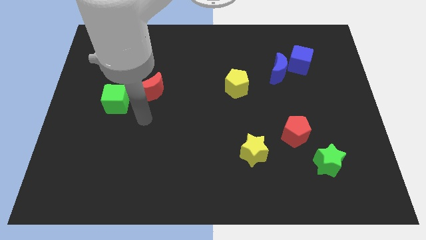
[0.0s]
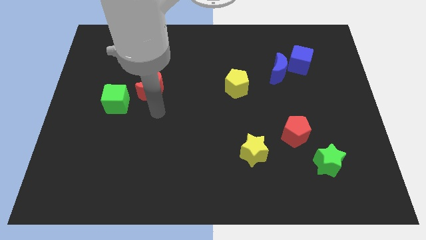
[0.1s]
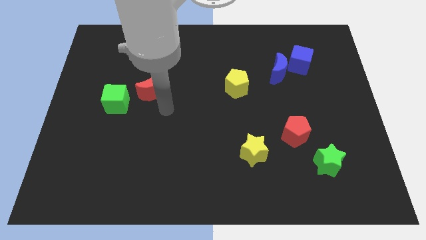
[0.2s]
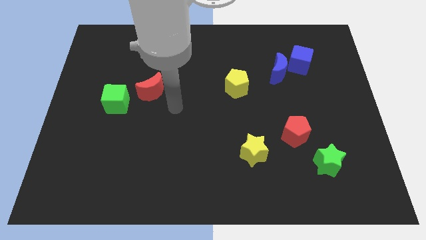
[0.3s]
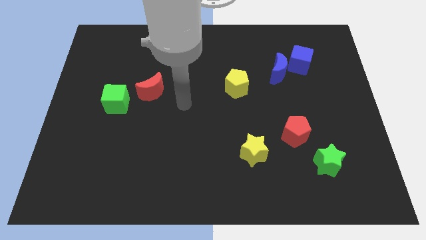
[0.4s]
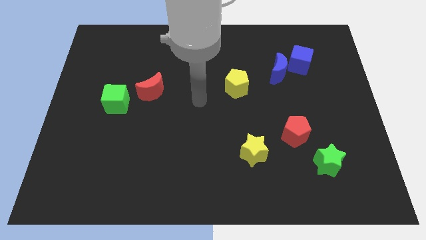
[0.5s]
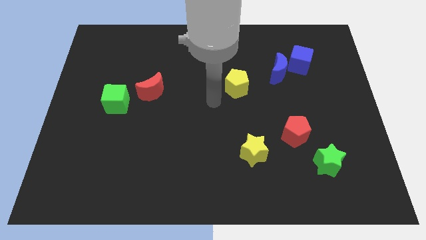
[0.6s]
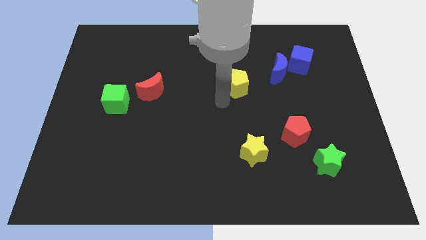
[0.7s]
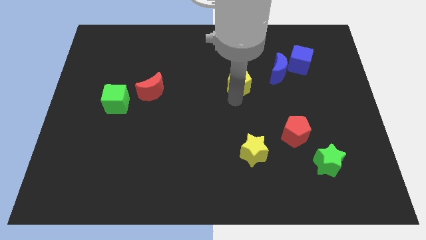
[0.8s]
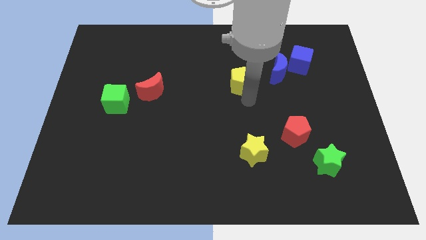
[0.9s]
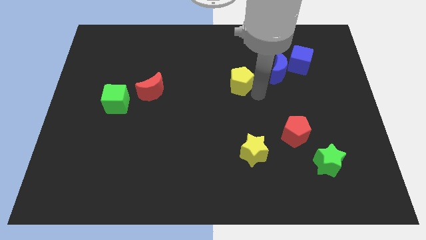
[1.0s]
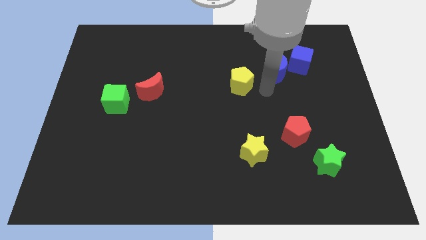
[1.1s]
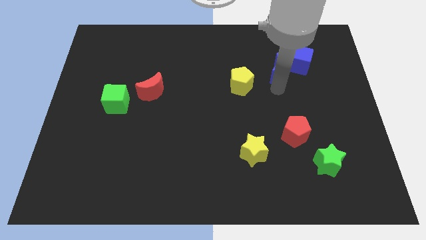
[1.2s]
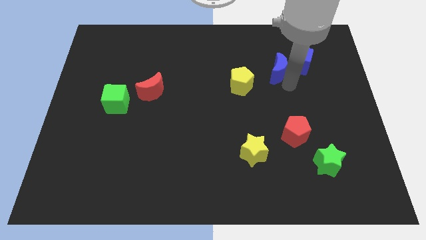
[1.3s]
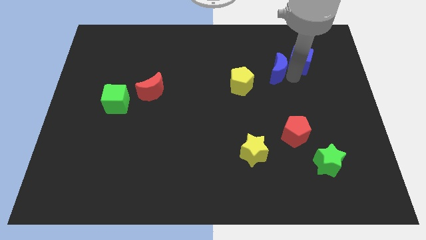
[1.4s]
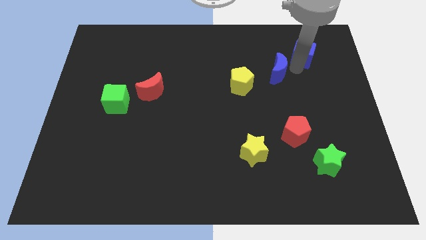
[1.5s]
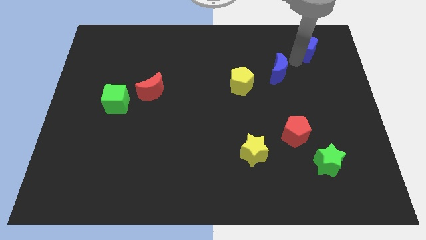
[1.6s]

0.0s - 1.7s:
move the blue moon away from the blue cube

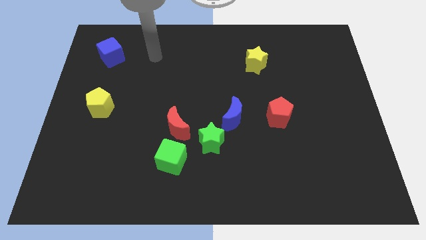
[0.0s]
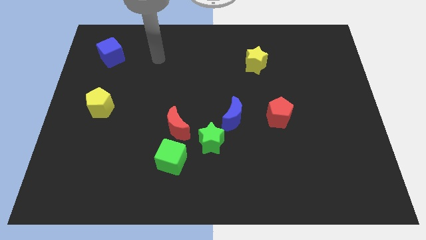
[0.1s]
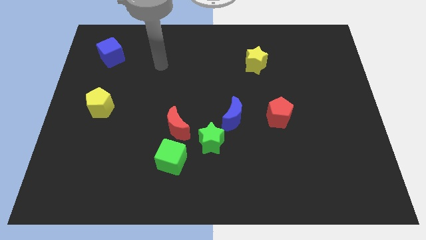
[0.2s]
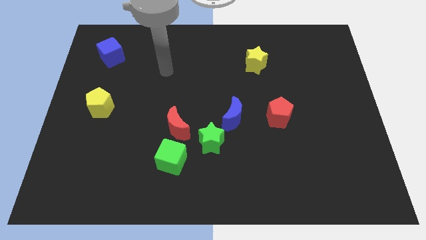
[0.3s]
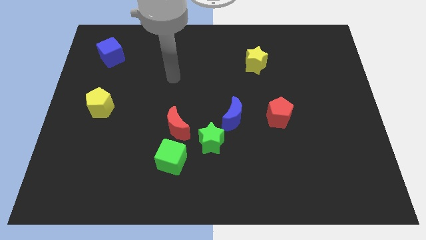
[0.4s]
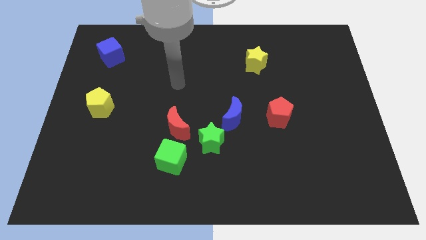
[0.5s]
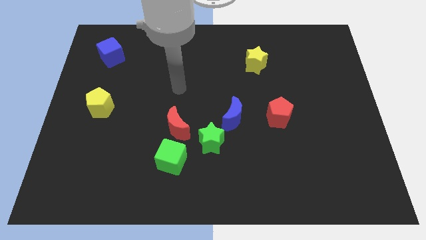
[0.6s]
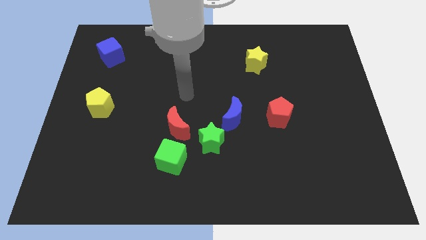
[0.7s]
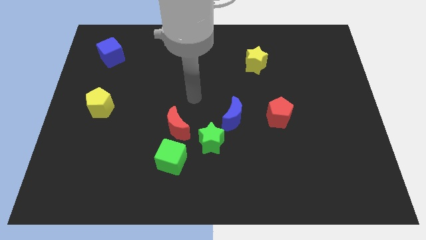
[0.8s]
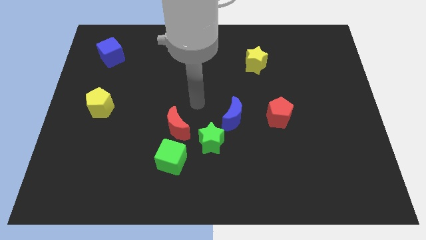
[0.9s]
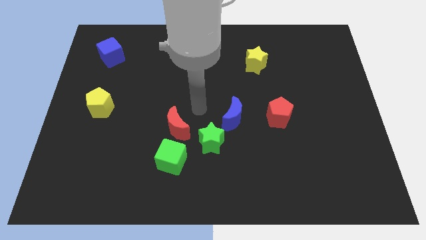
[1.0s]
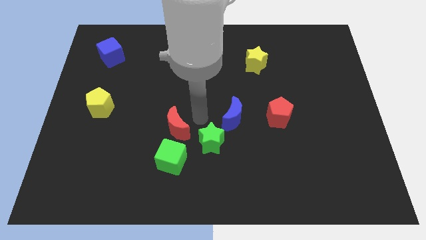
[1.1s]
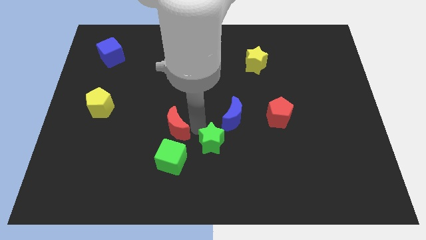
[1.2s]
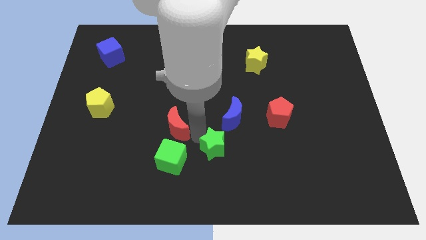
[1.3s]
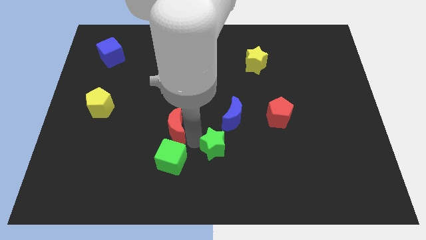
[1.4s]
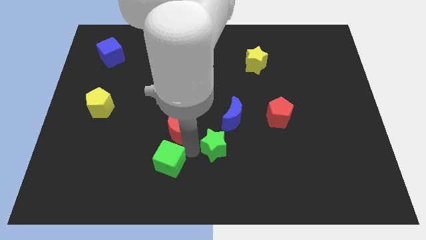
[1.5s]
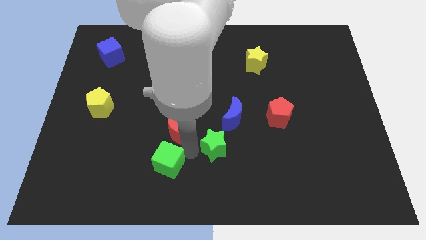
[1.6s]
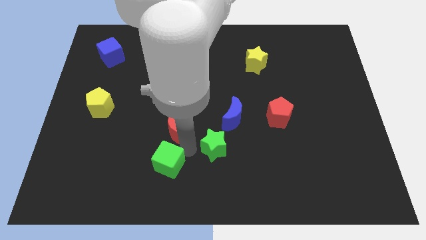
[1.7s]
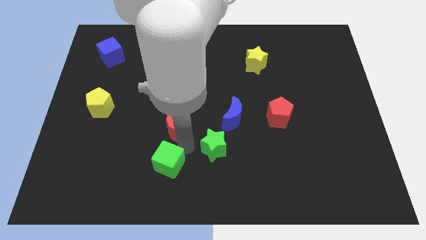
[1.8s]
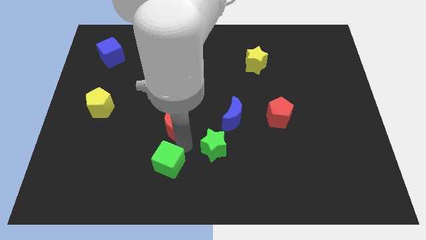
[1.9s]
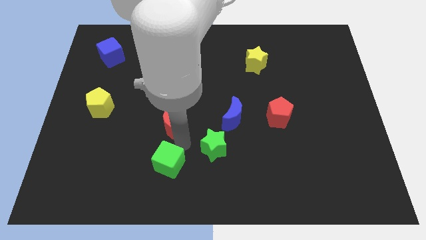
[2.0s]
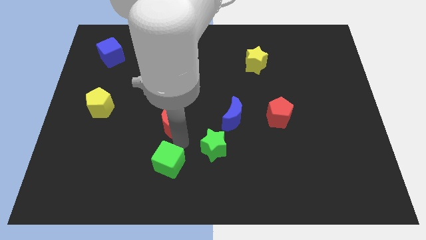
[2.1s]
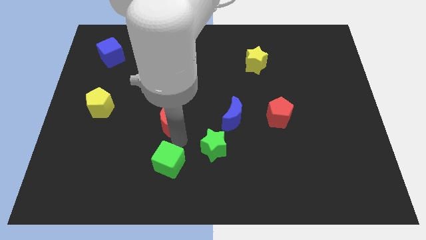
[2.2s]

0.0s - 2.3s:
separate the red moon from the green cube and green star

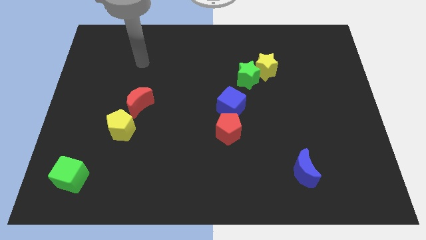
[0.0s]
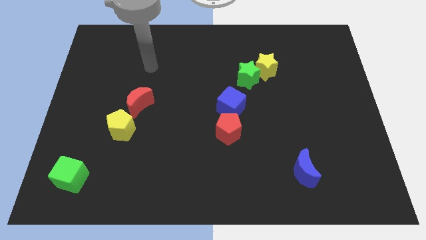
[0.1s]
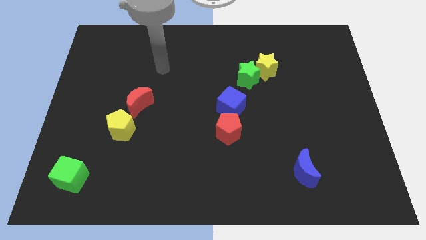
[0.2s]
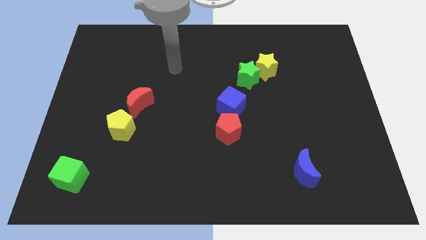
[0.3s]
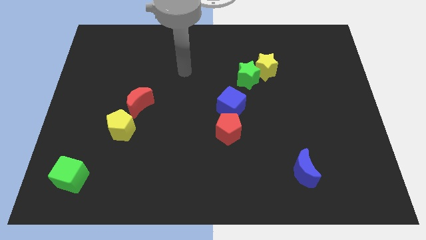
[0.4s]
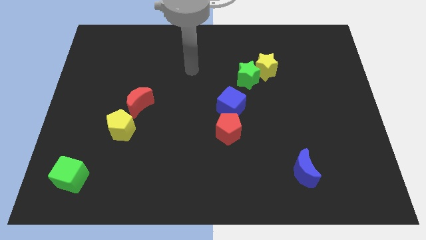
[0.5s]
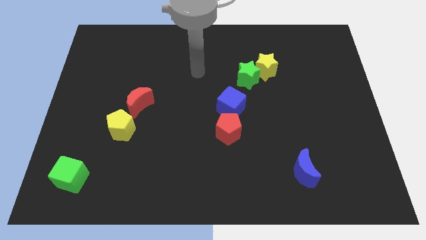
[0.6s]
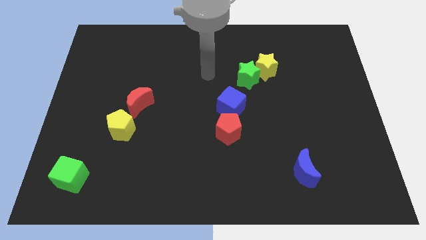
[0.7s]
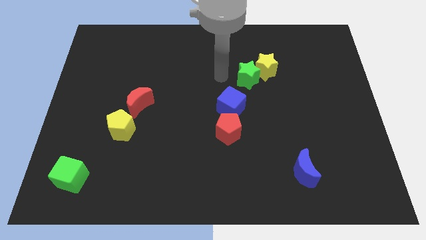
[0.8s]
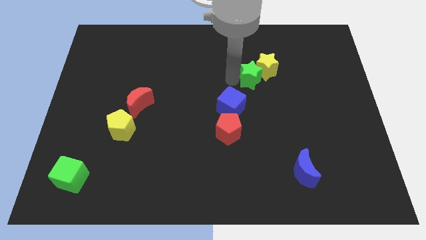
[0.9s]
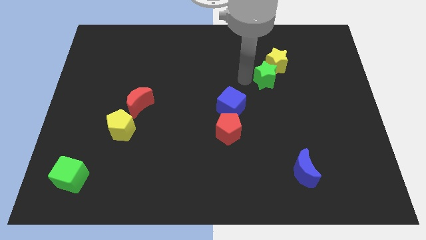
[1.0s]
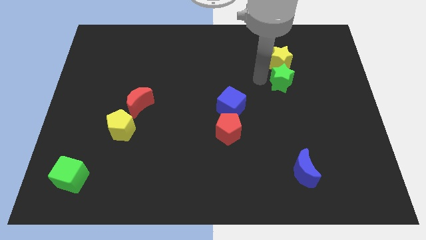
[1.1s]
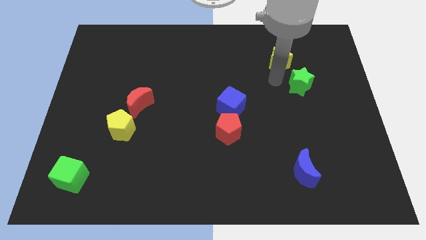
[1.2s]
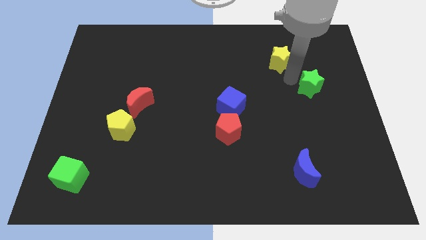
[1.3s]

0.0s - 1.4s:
pull the yellow star apart from the green star

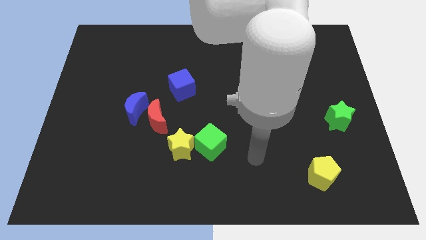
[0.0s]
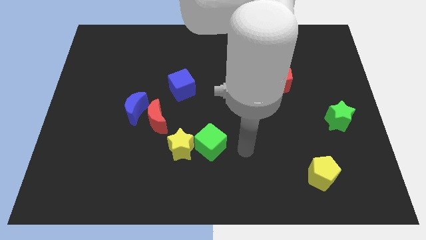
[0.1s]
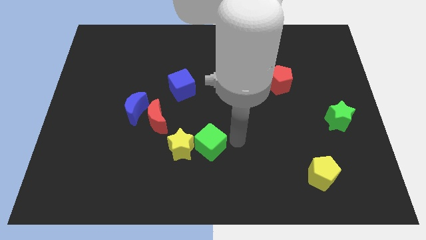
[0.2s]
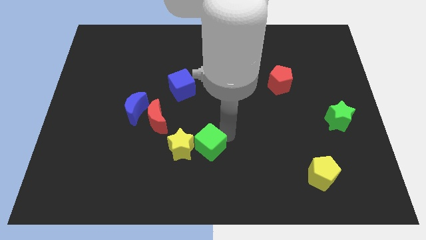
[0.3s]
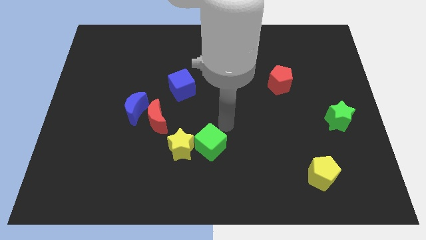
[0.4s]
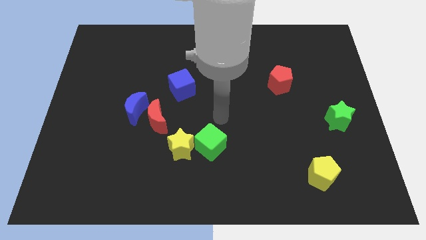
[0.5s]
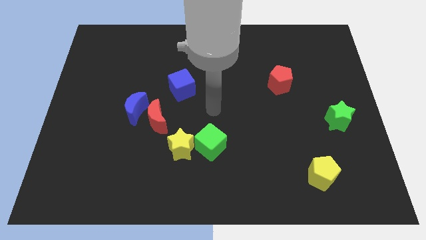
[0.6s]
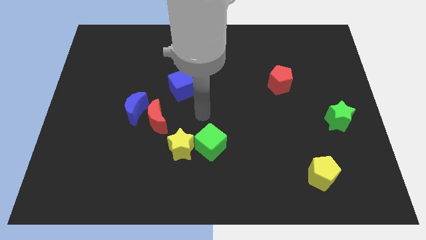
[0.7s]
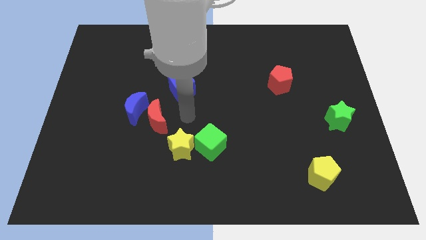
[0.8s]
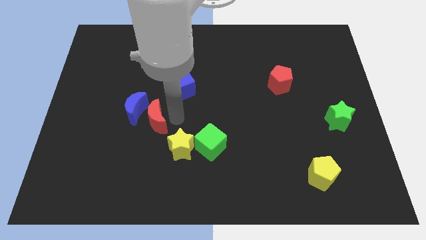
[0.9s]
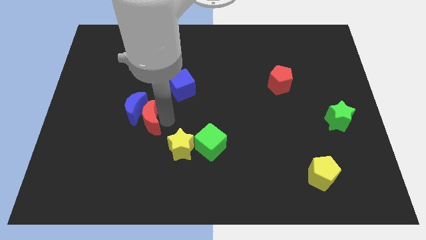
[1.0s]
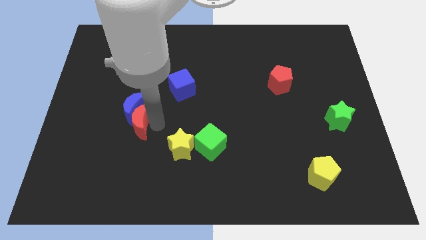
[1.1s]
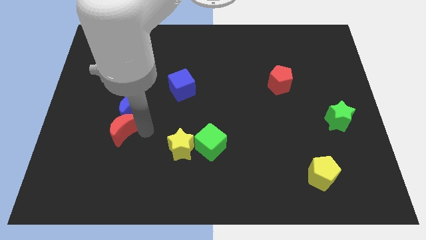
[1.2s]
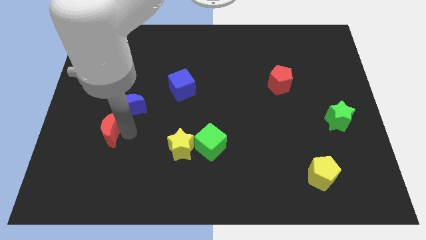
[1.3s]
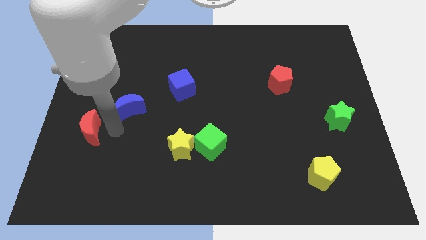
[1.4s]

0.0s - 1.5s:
move the blue moon away from the red moon

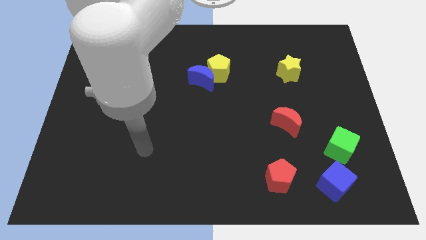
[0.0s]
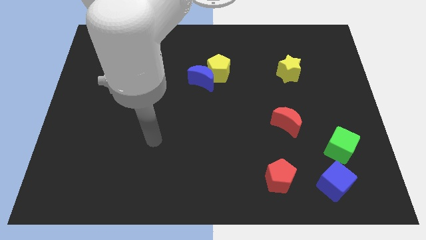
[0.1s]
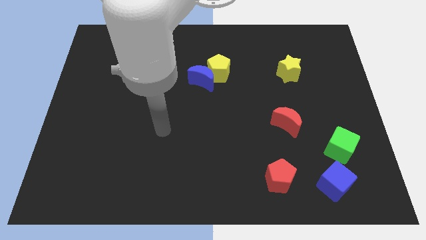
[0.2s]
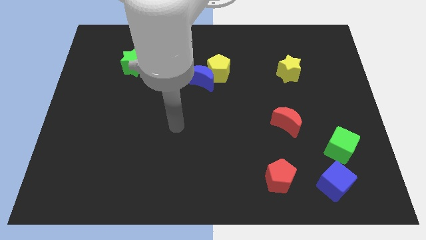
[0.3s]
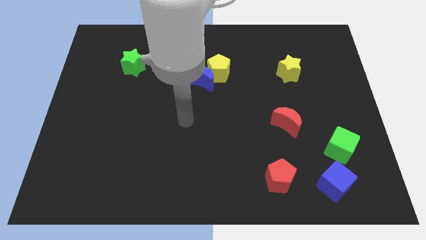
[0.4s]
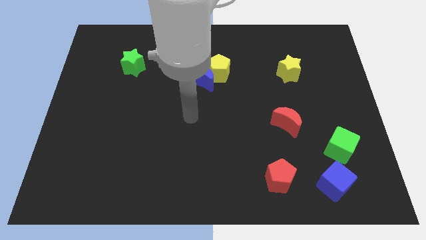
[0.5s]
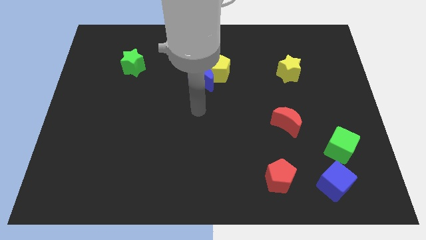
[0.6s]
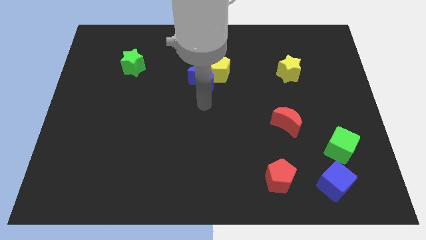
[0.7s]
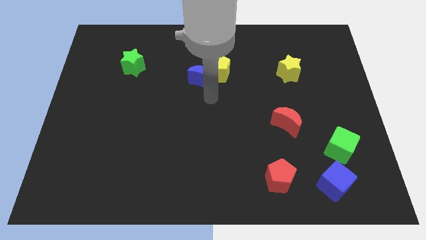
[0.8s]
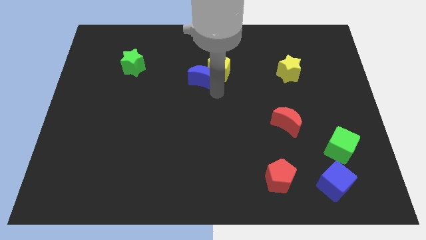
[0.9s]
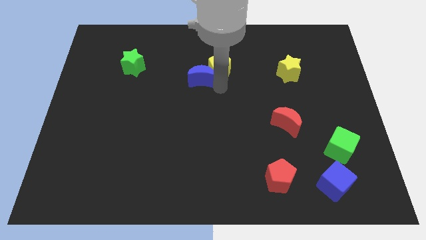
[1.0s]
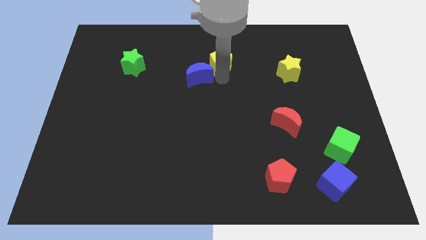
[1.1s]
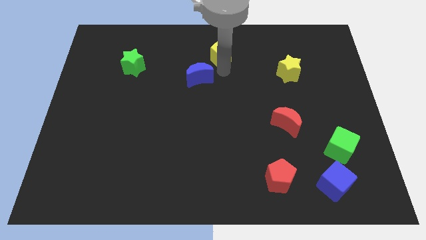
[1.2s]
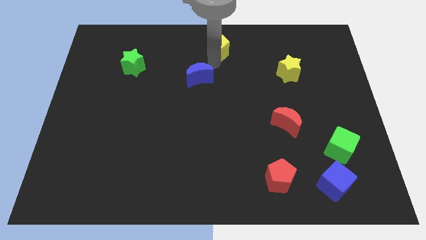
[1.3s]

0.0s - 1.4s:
separate the blue moon from the yellow pentagon

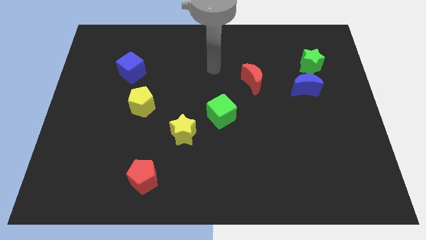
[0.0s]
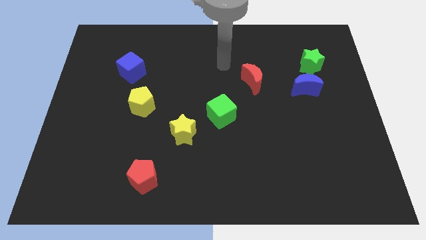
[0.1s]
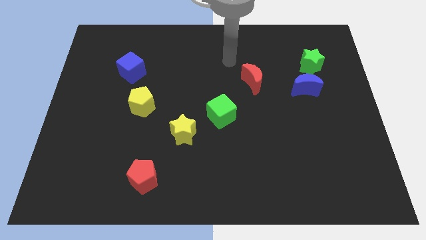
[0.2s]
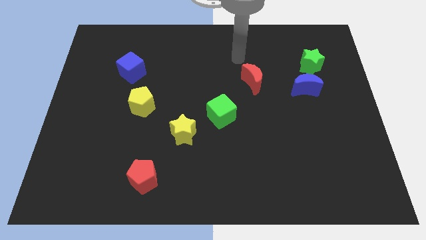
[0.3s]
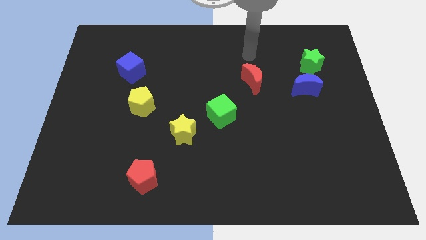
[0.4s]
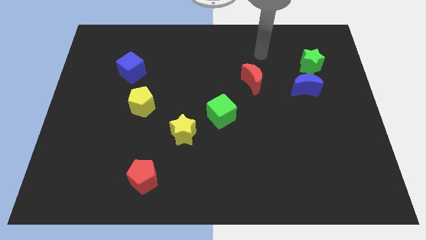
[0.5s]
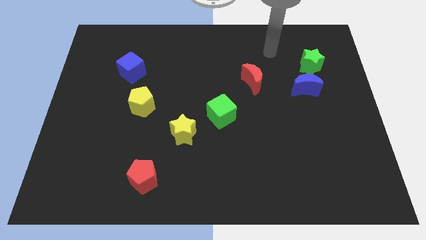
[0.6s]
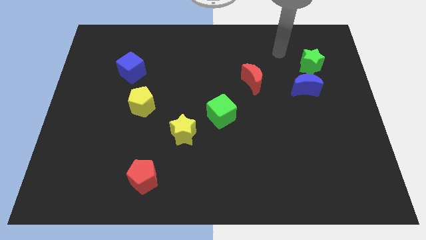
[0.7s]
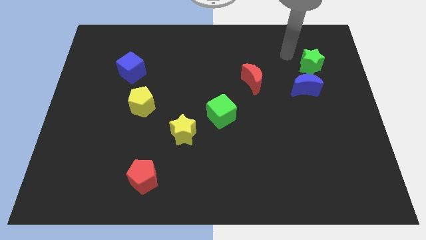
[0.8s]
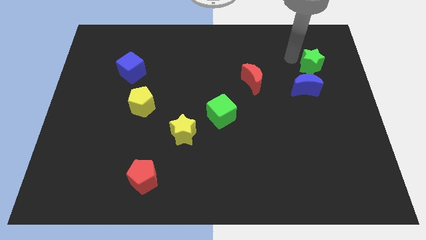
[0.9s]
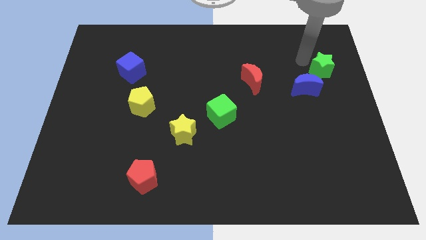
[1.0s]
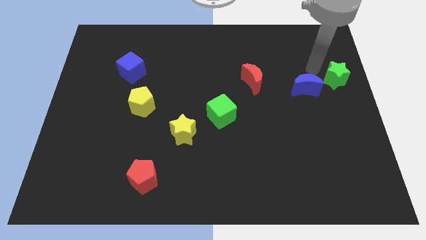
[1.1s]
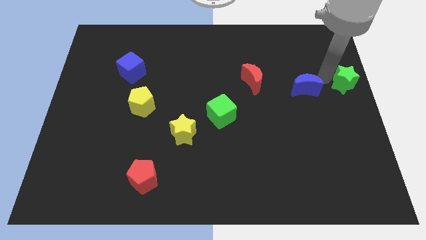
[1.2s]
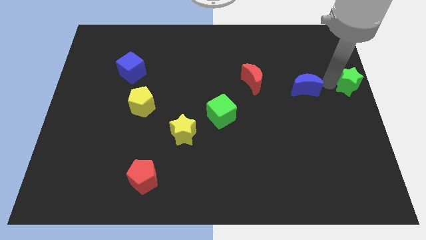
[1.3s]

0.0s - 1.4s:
move the blue moon away from the green star
